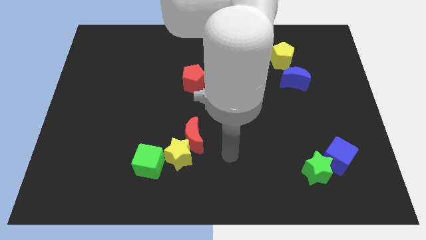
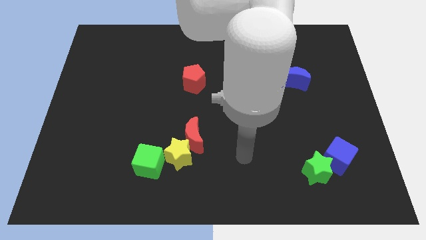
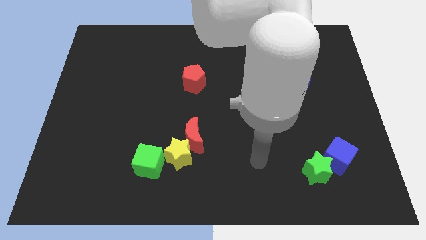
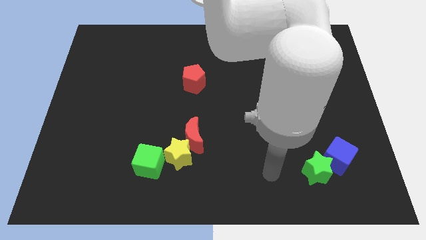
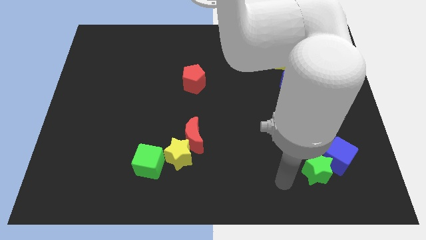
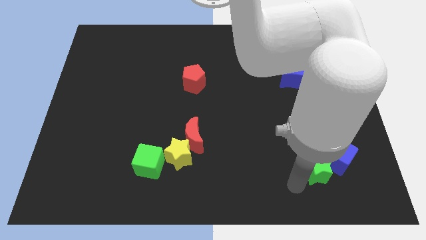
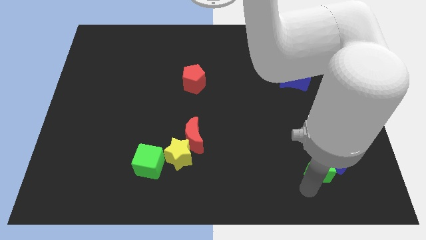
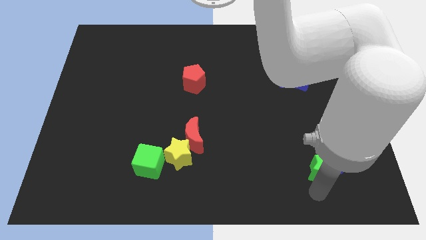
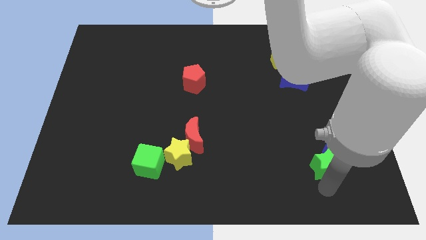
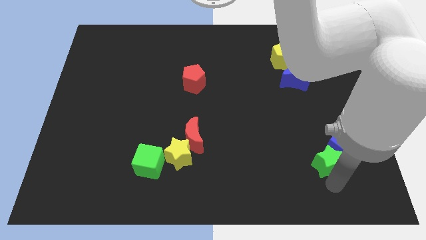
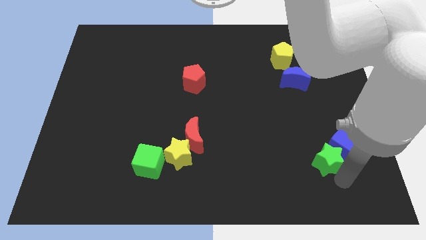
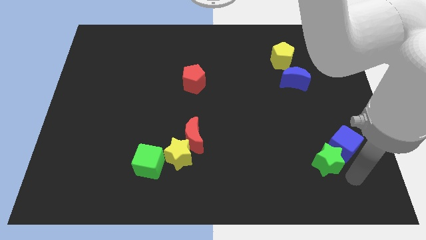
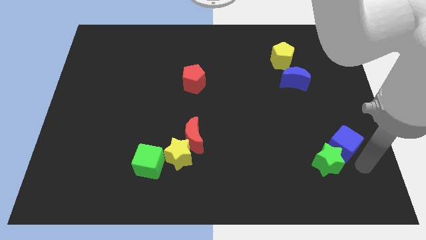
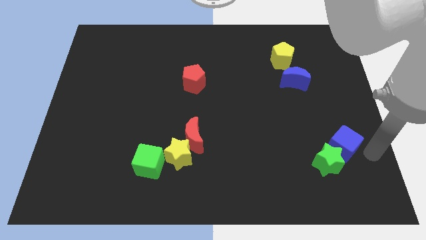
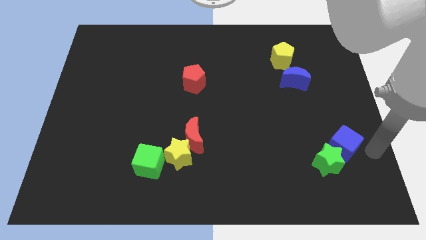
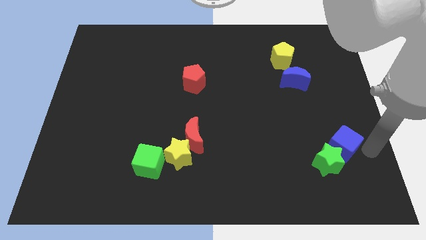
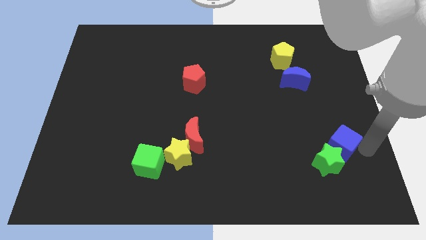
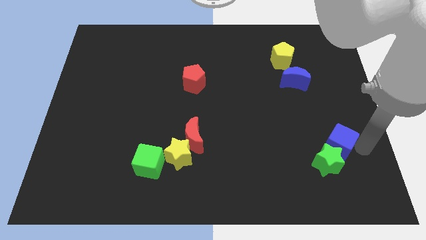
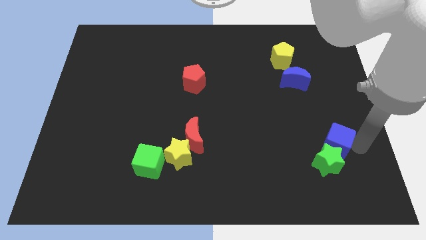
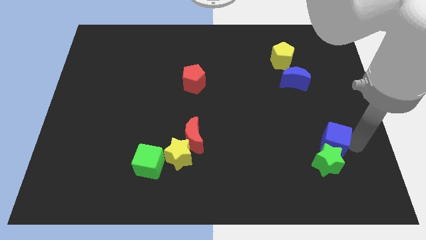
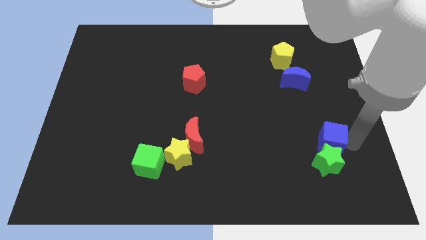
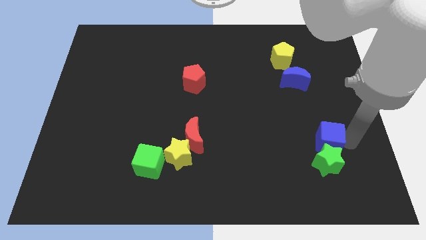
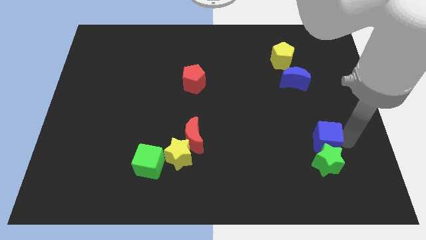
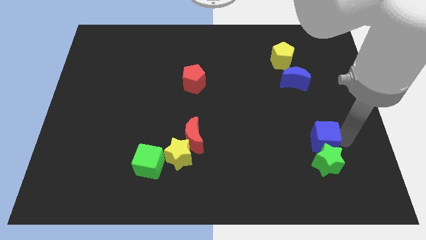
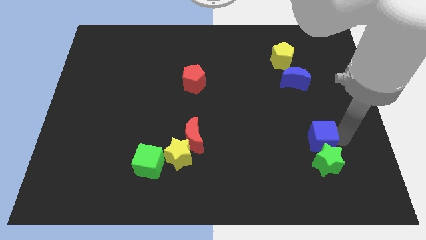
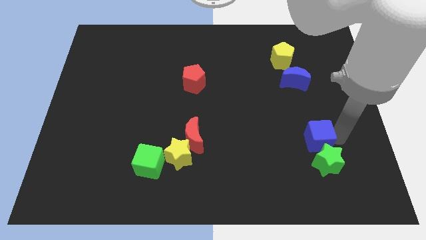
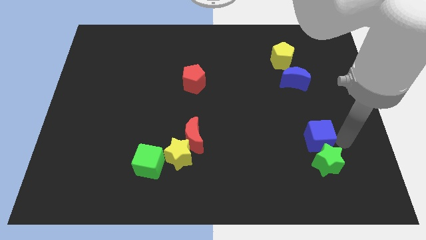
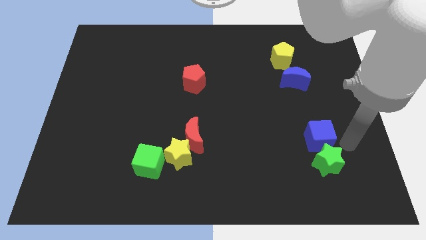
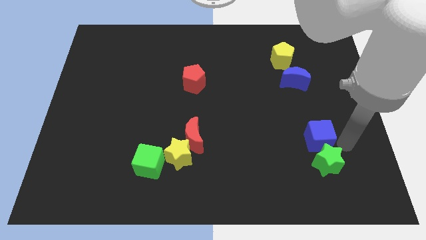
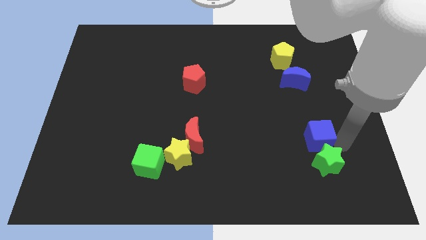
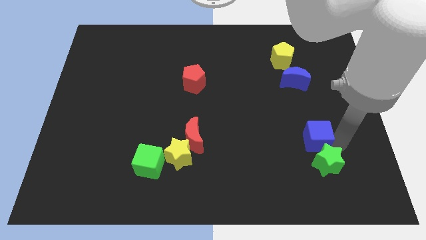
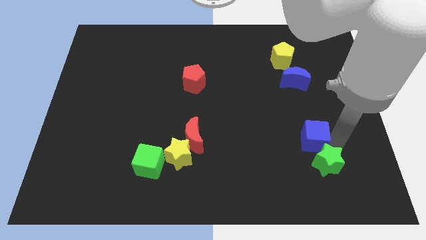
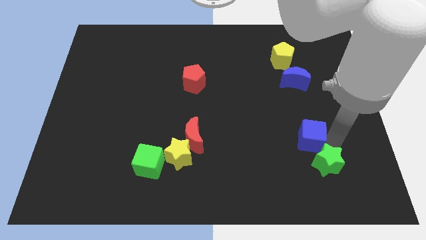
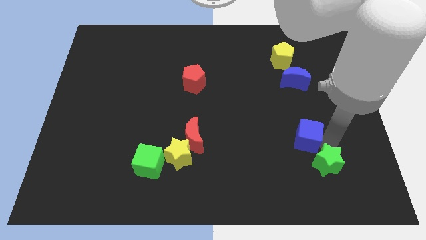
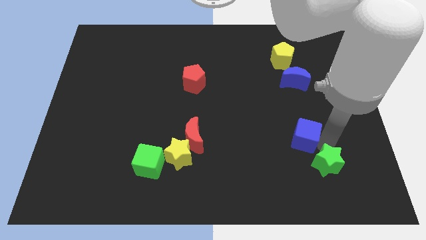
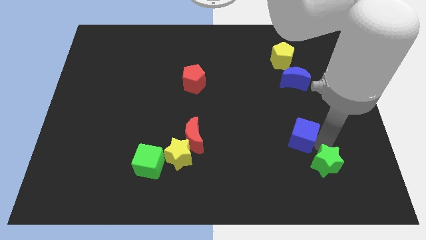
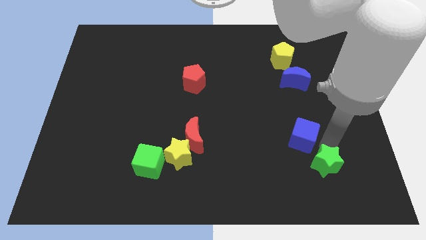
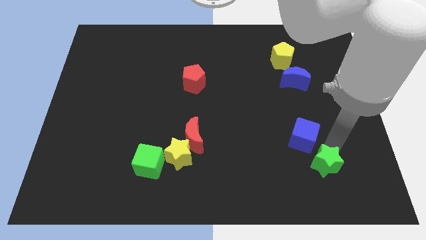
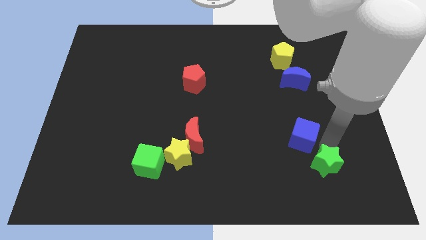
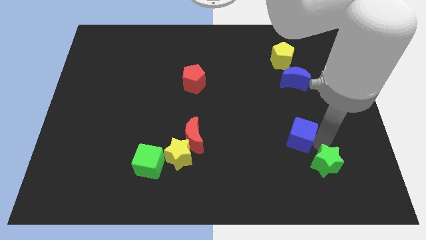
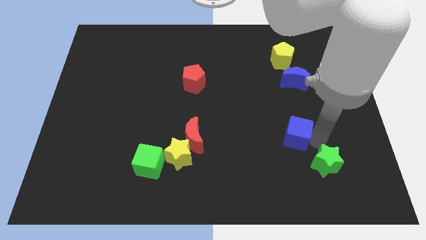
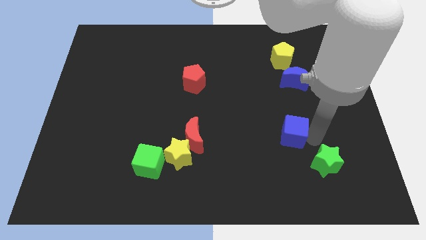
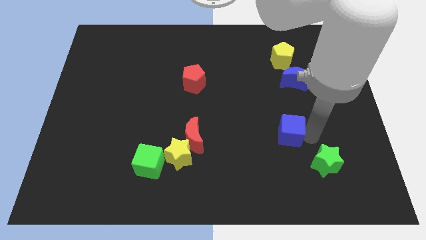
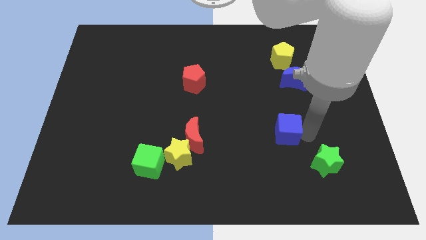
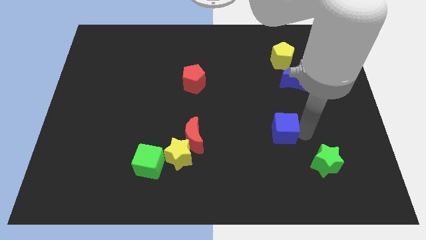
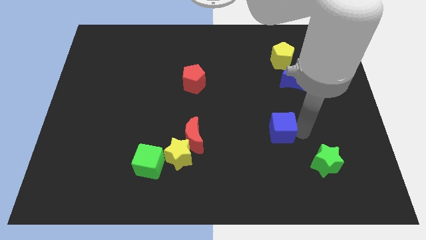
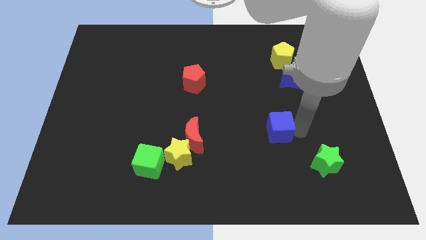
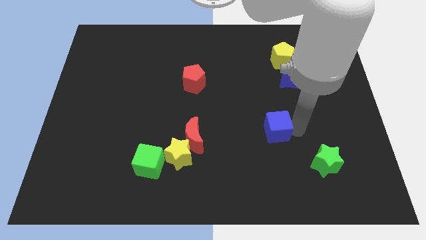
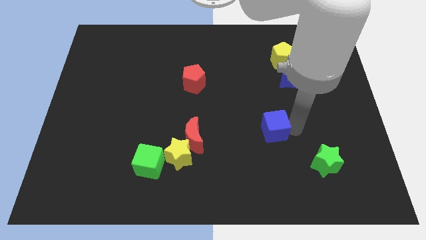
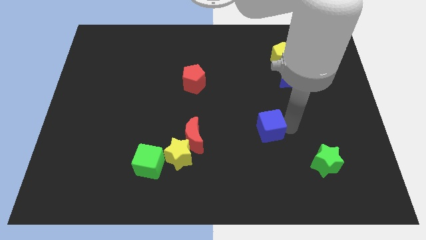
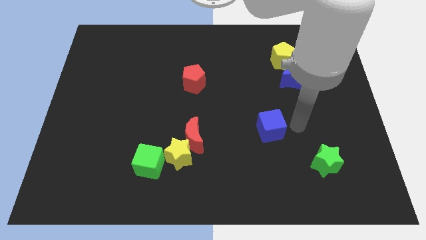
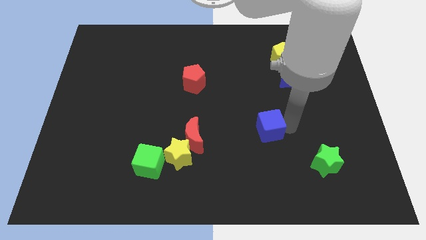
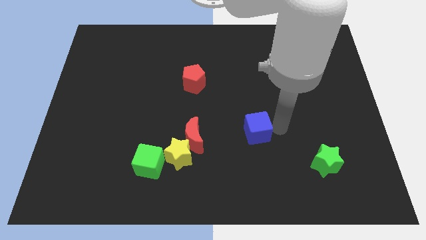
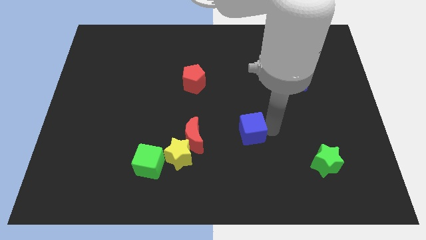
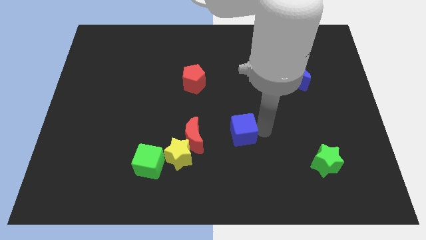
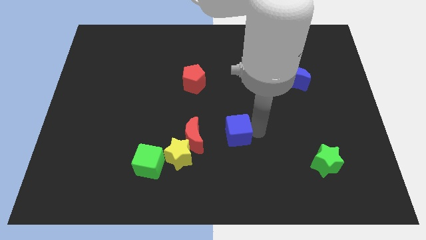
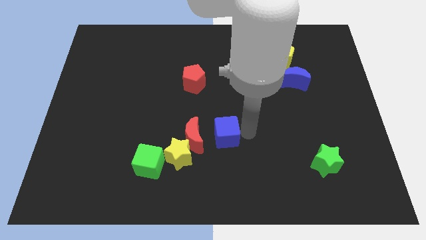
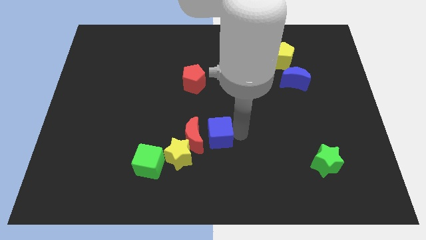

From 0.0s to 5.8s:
move the blue cube close to the red moon

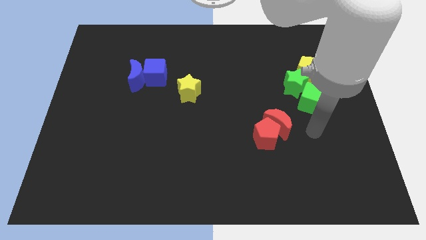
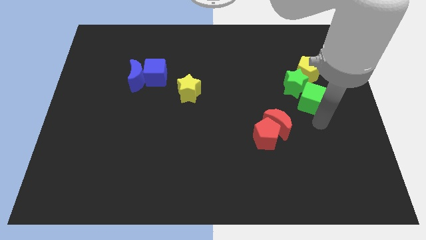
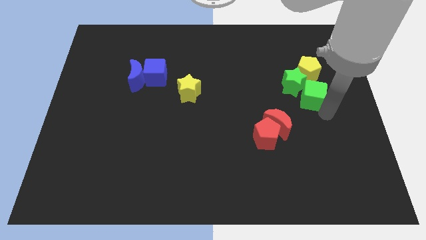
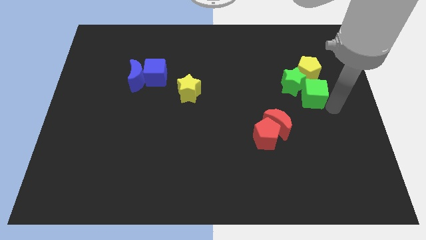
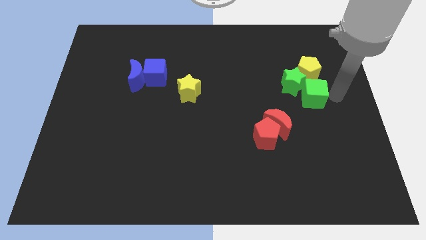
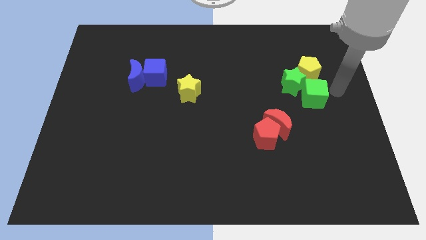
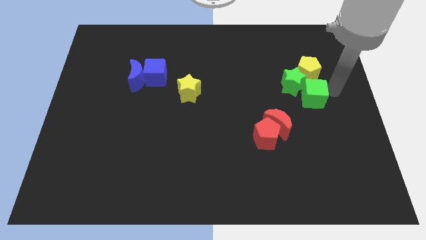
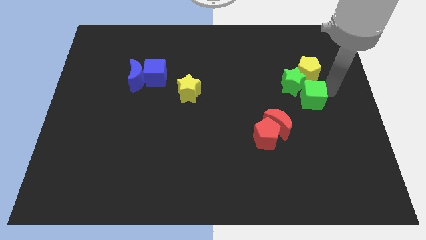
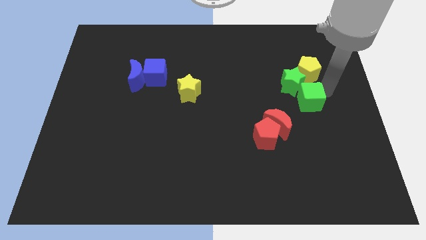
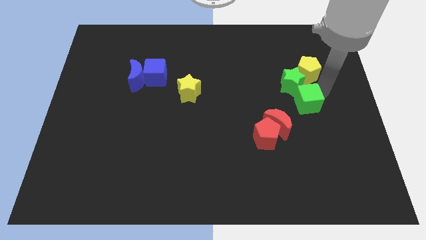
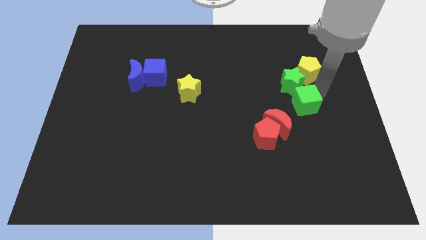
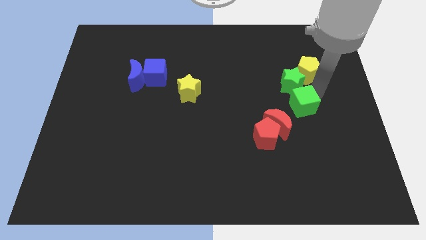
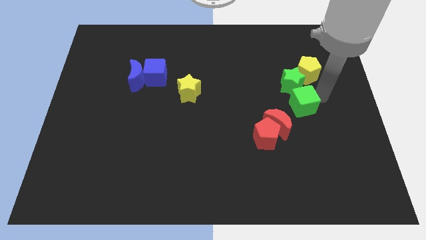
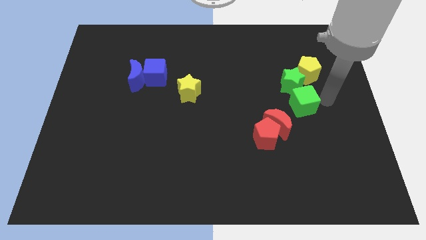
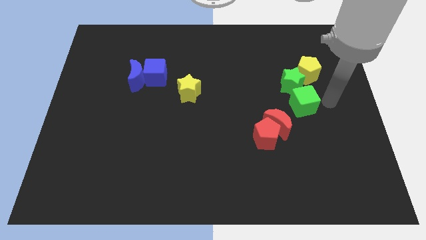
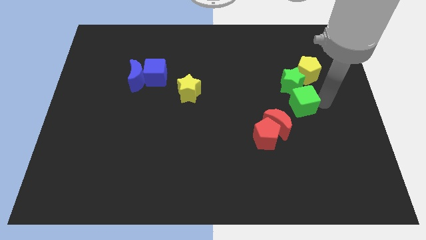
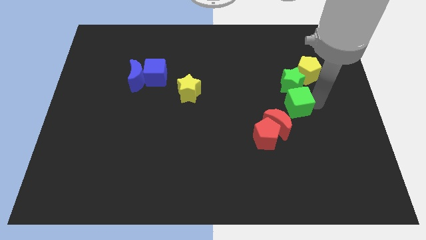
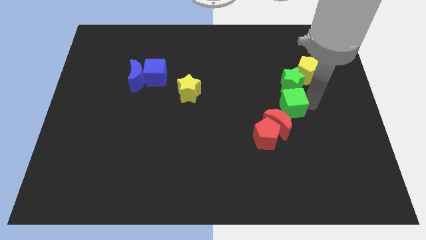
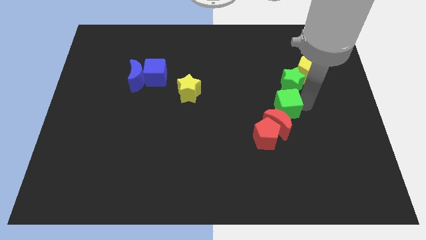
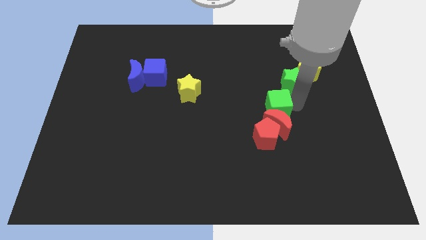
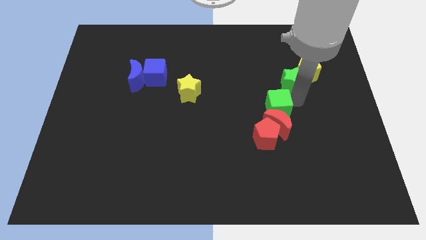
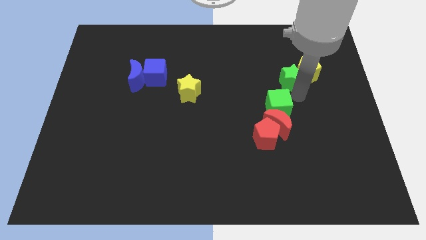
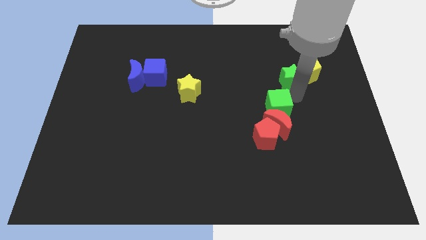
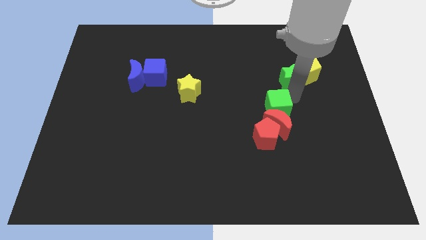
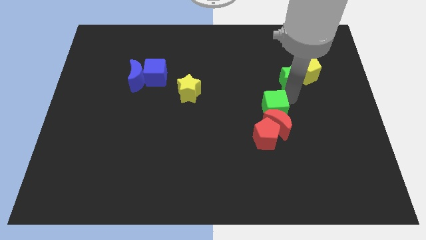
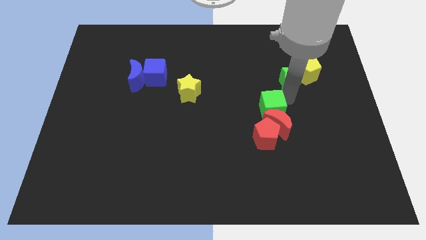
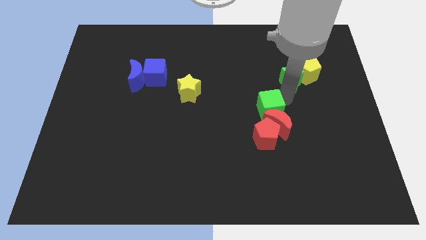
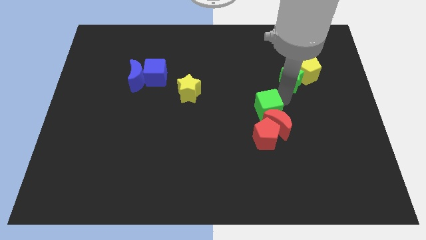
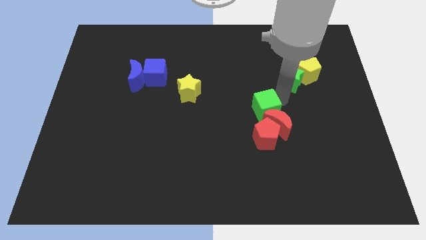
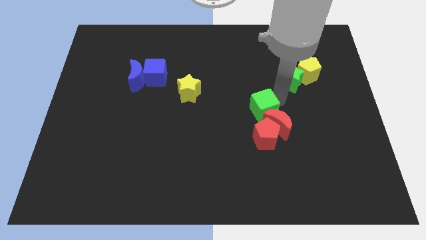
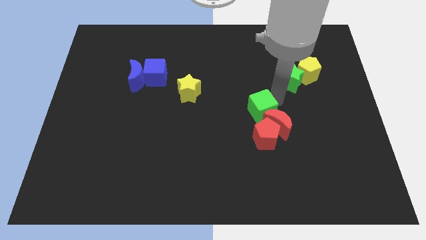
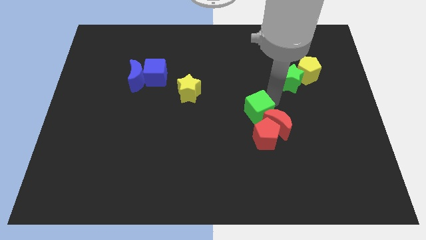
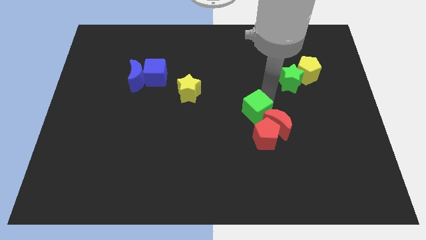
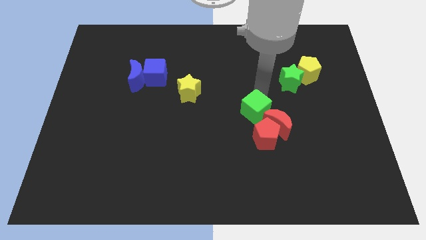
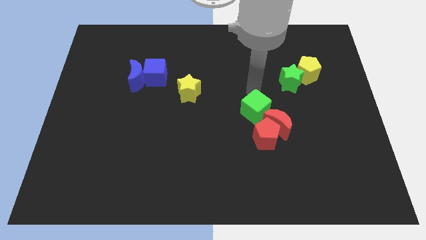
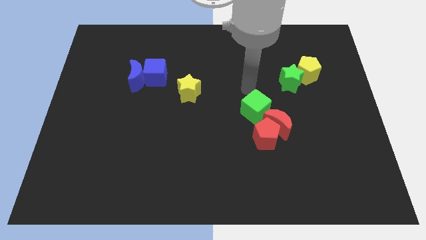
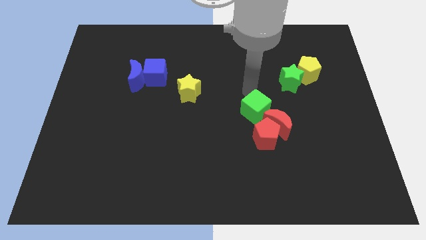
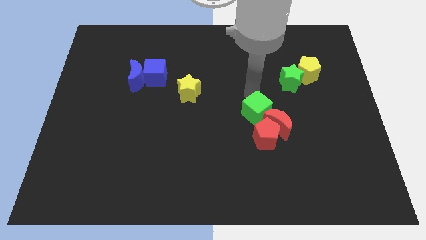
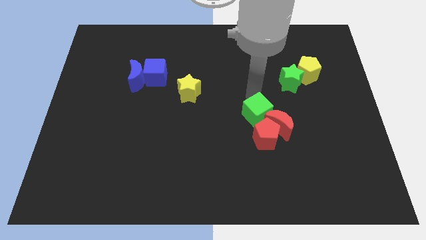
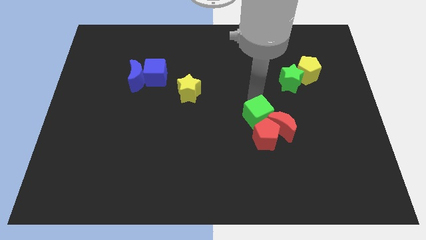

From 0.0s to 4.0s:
slide the green cube to the red pentagon
